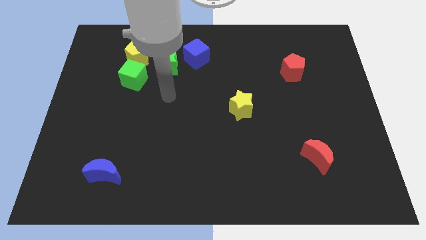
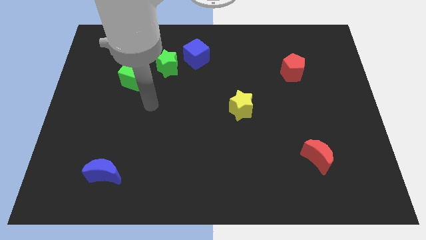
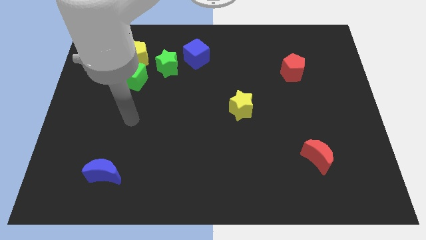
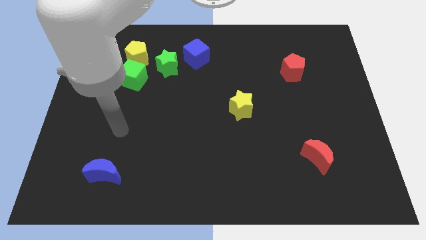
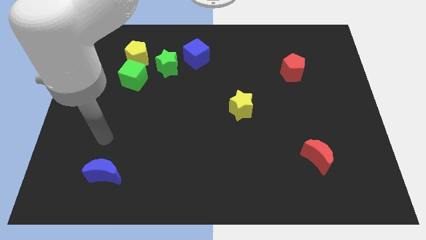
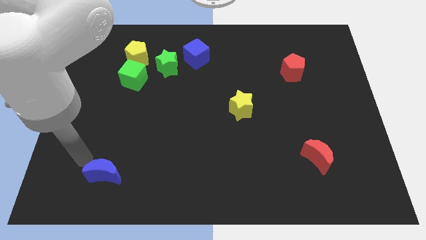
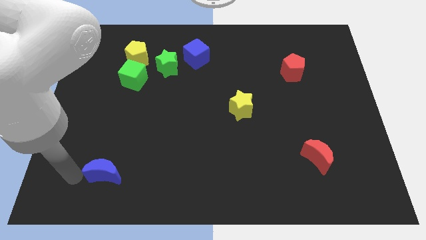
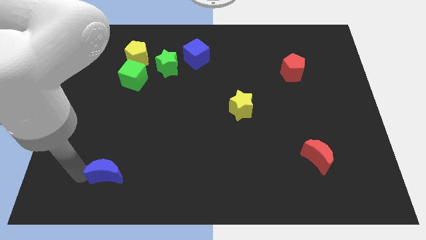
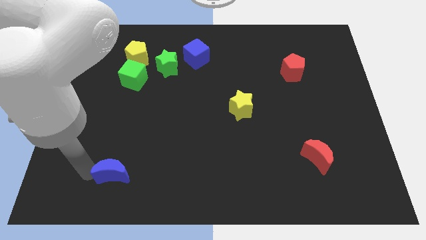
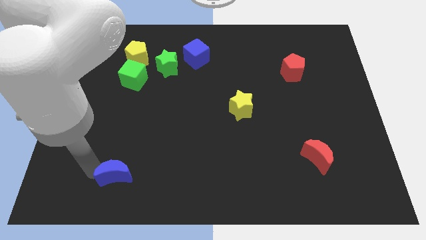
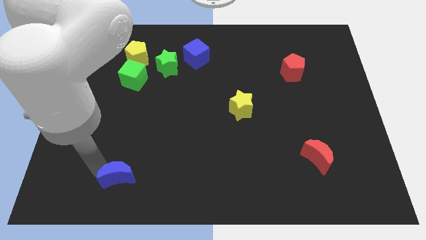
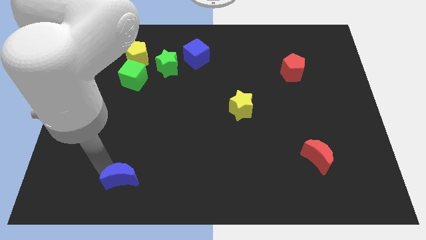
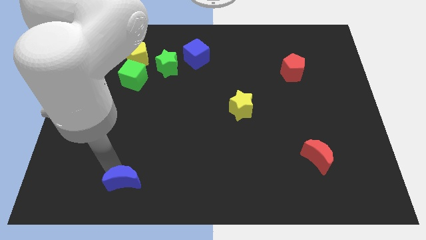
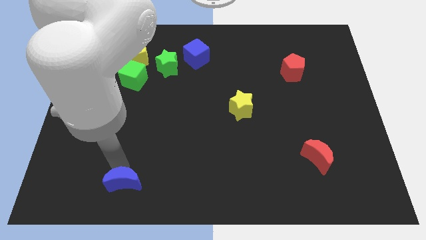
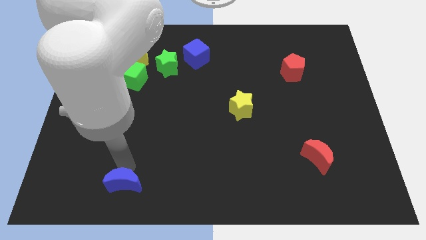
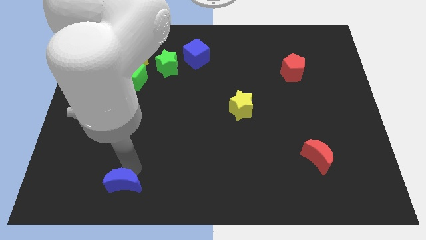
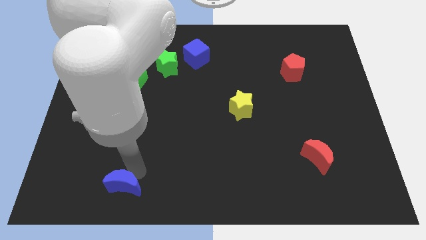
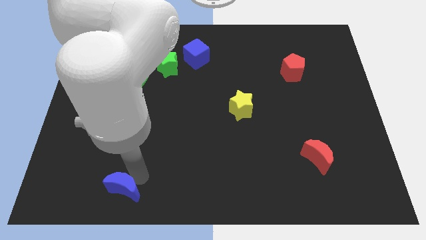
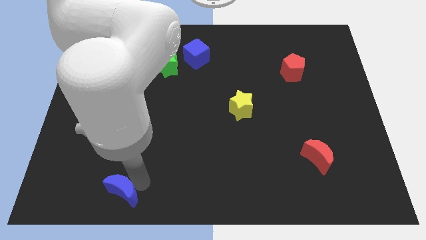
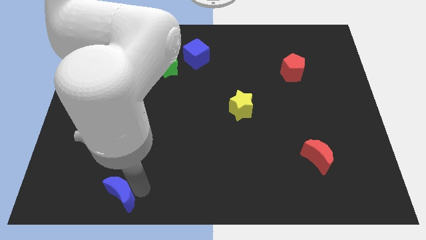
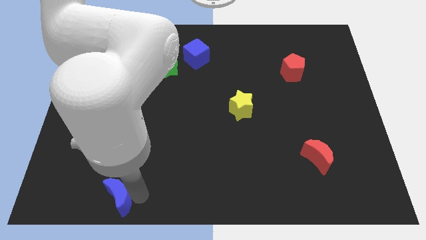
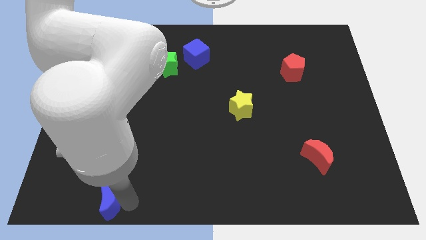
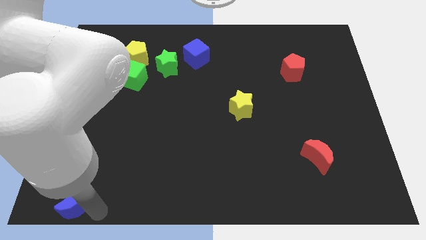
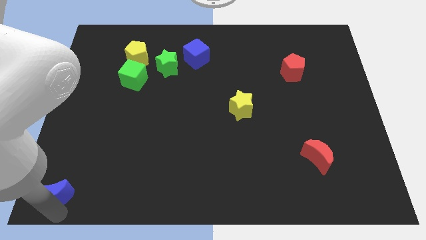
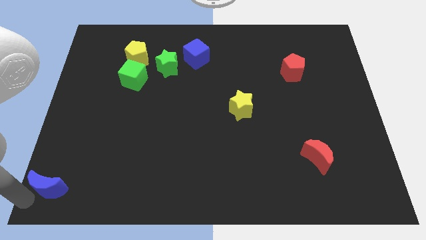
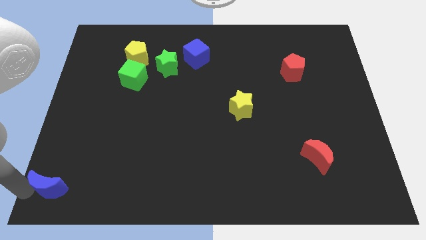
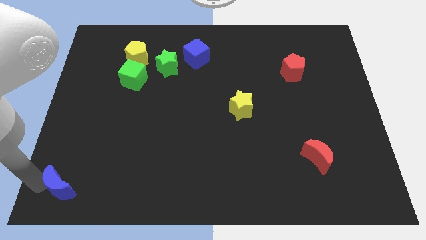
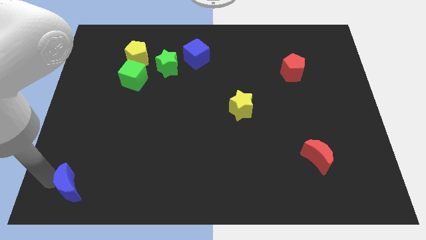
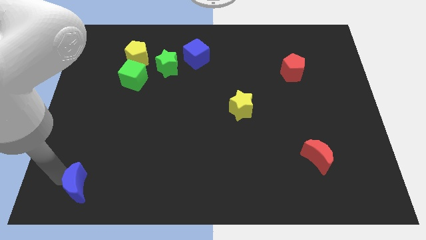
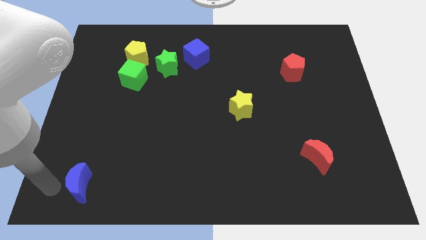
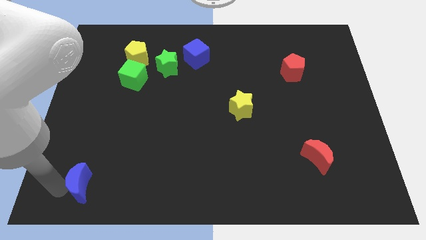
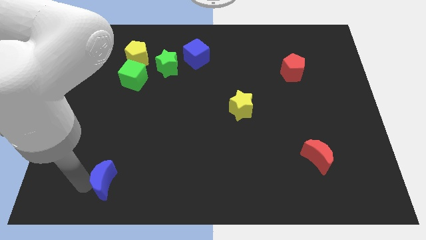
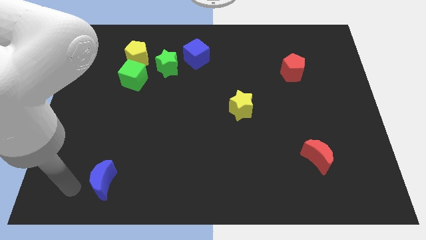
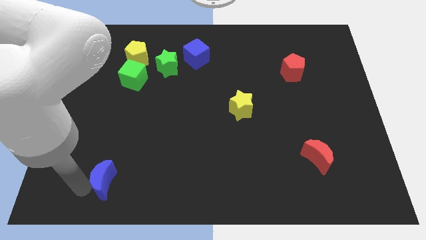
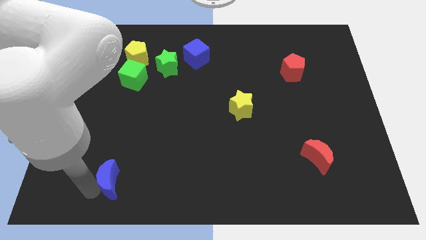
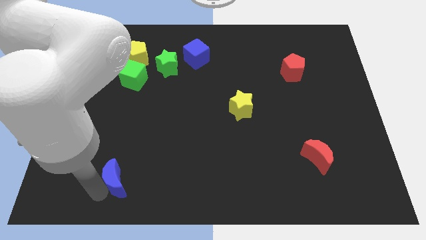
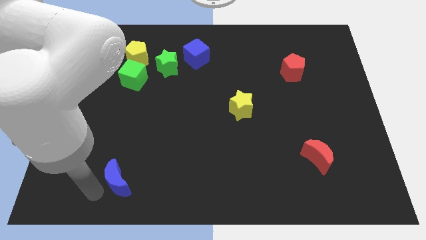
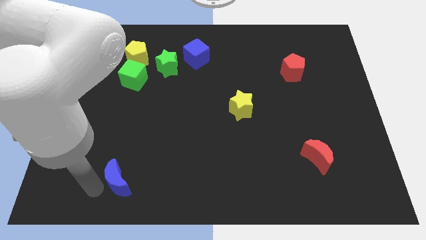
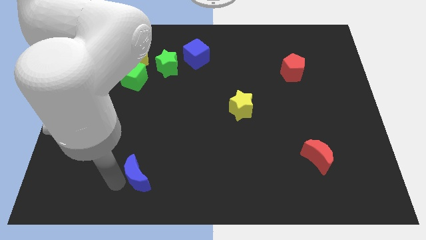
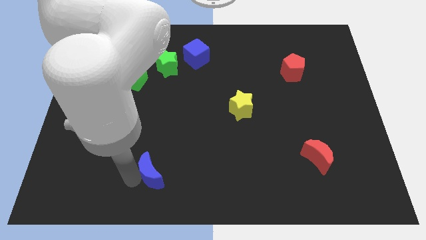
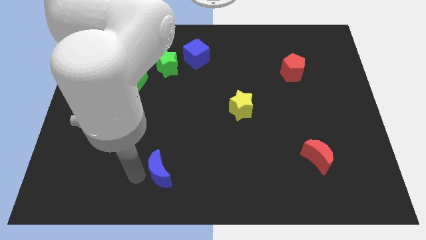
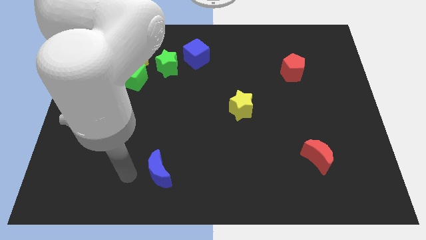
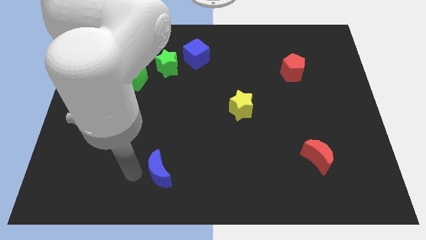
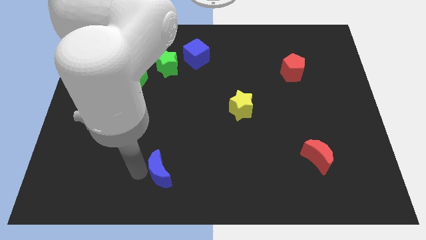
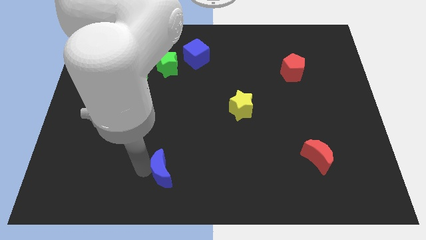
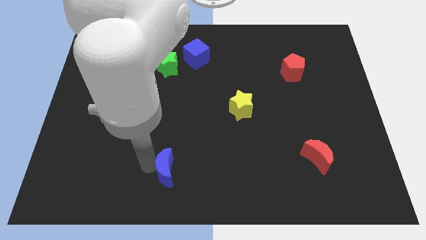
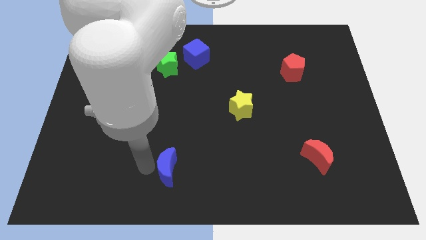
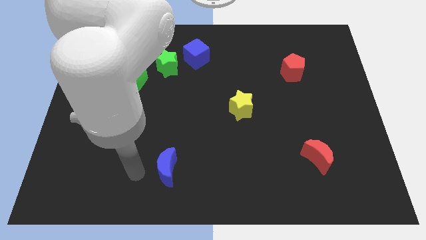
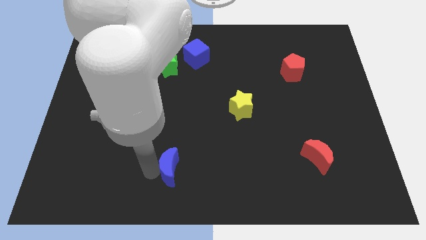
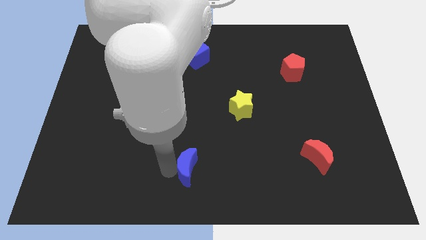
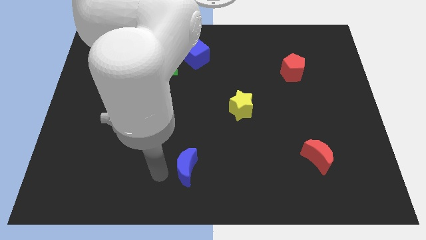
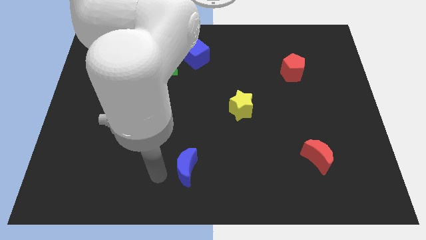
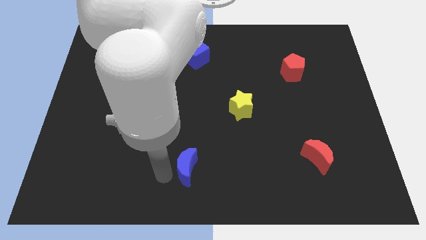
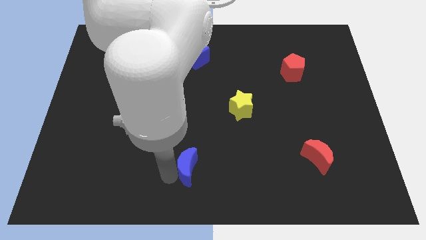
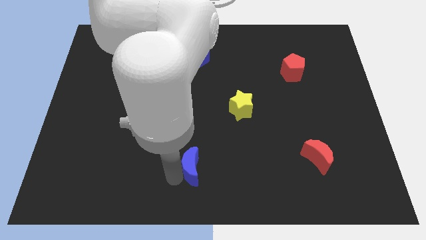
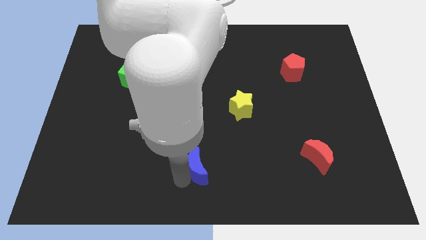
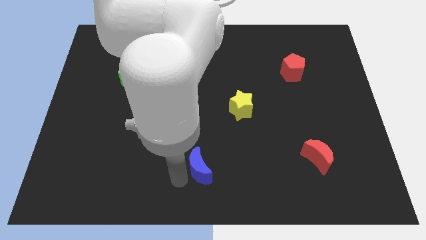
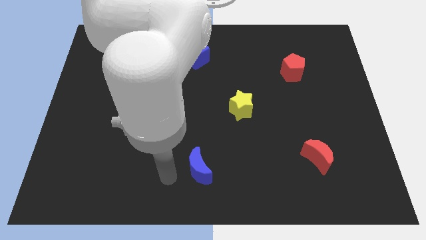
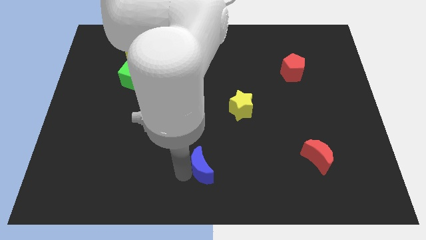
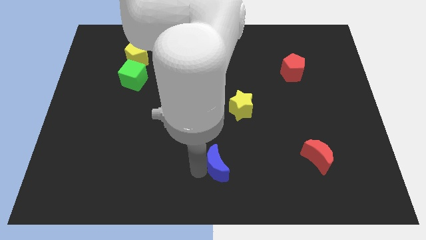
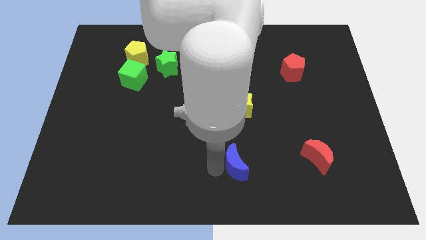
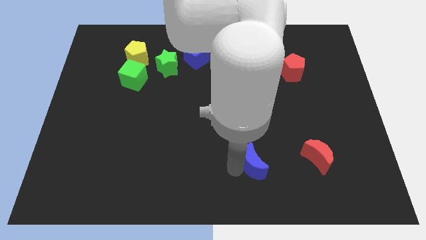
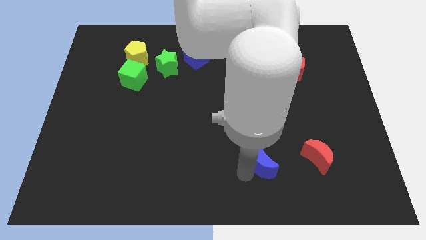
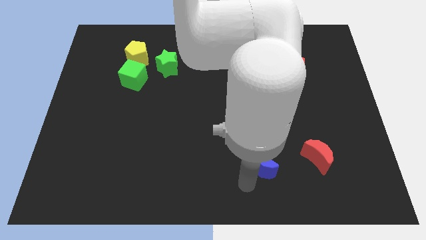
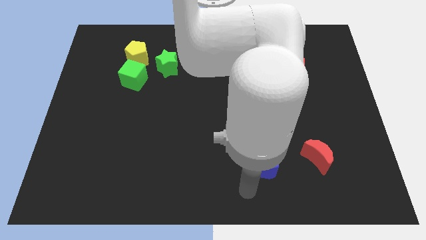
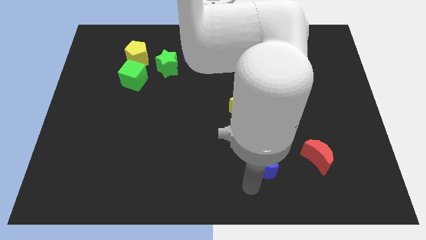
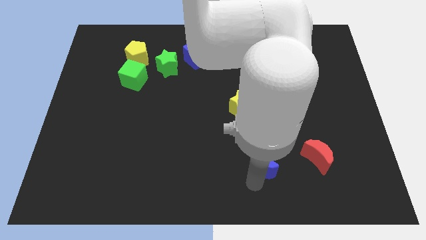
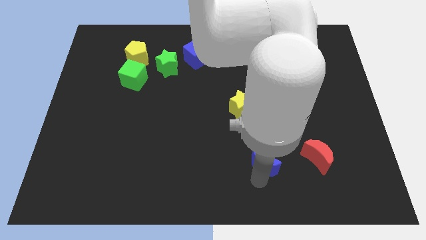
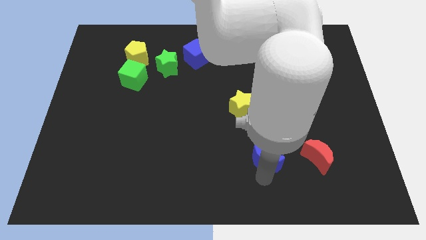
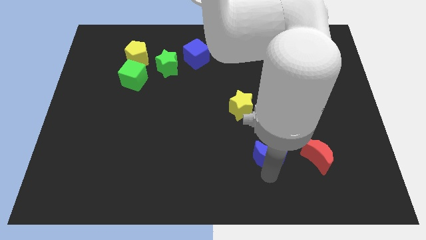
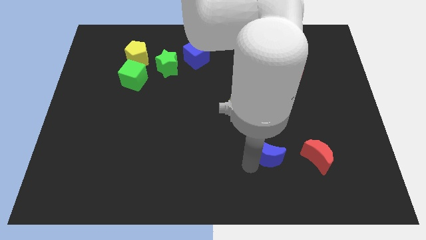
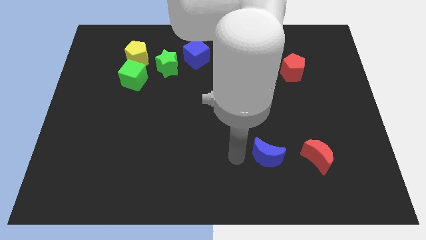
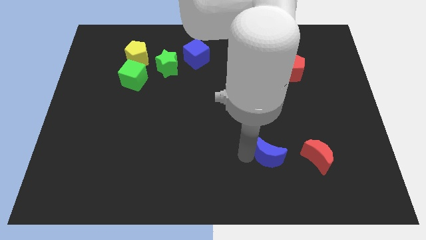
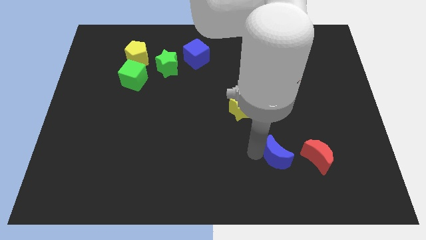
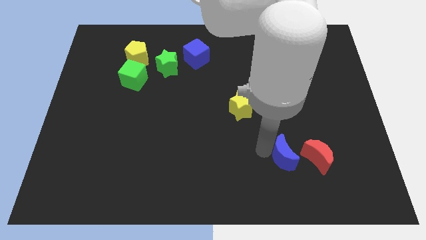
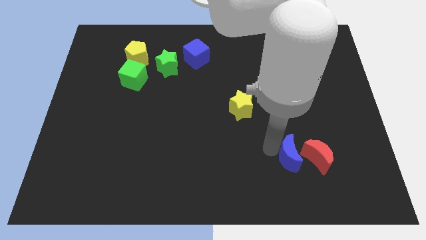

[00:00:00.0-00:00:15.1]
move the blue moon close to the red moon
